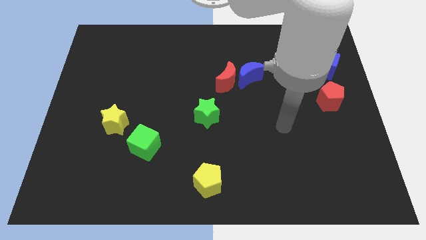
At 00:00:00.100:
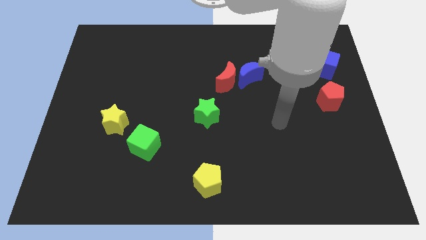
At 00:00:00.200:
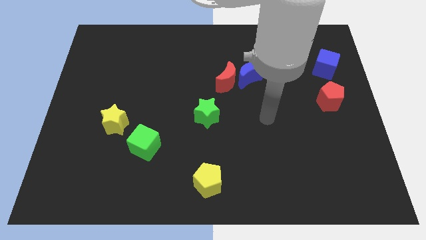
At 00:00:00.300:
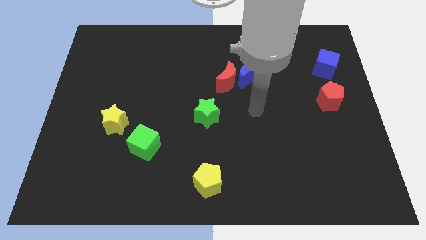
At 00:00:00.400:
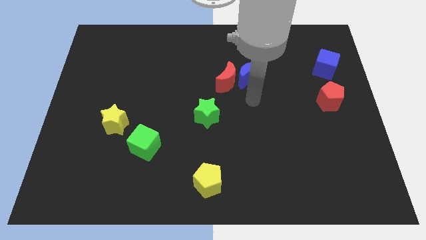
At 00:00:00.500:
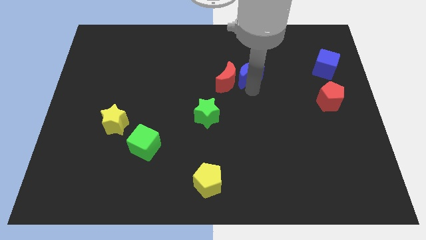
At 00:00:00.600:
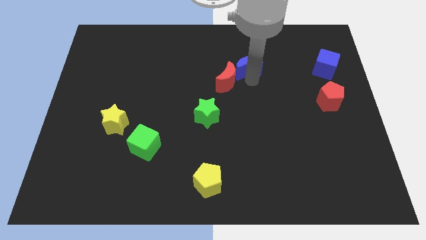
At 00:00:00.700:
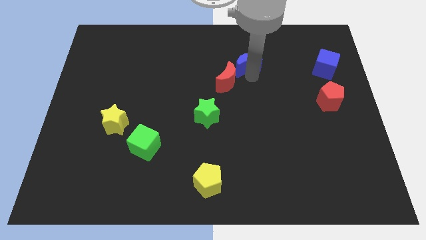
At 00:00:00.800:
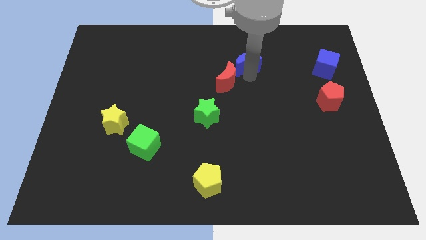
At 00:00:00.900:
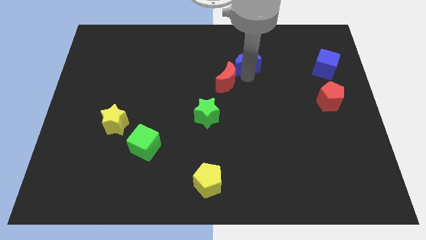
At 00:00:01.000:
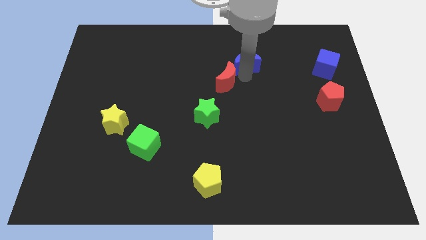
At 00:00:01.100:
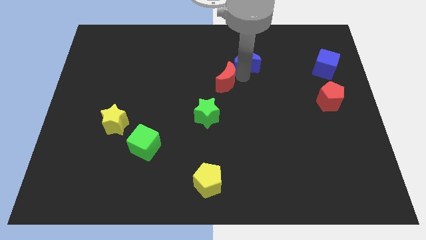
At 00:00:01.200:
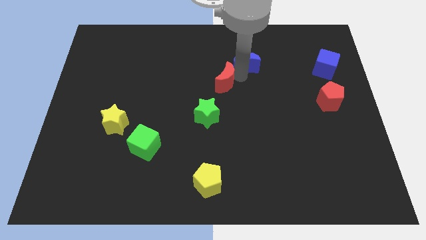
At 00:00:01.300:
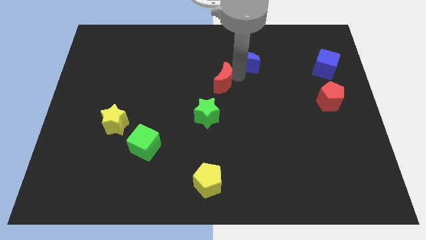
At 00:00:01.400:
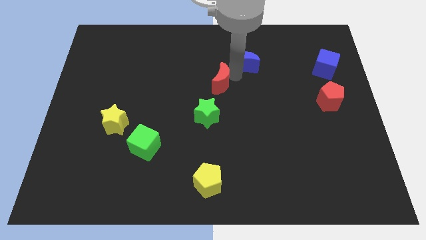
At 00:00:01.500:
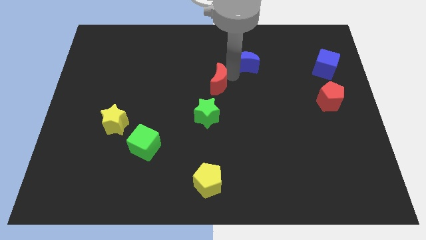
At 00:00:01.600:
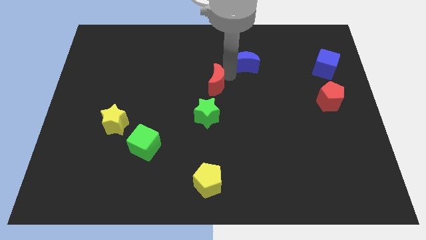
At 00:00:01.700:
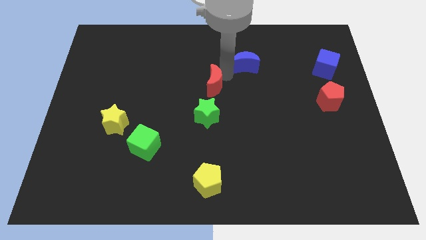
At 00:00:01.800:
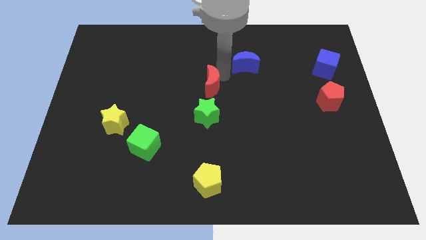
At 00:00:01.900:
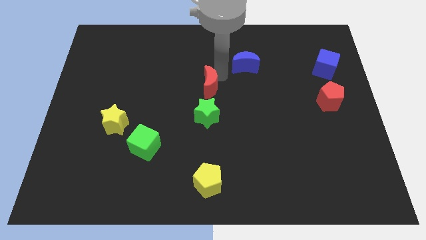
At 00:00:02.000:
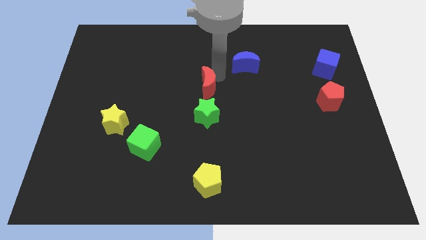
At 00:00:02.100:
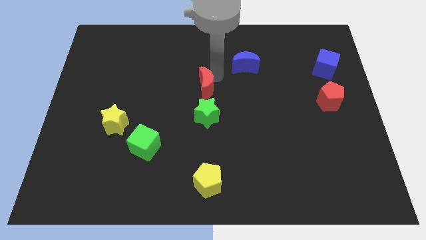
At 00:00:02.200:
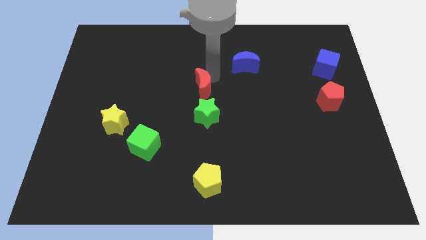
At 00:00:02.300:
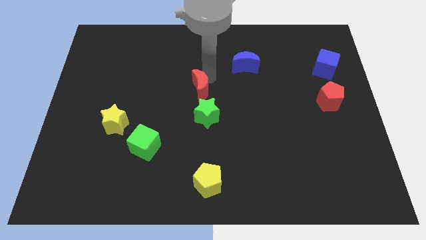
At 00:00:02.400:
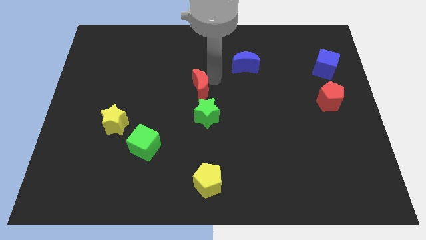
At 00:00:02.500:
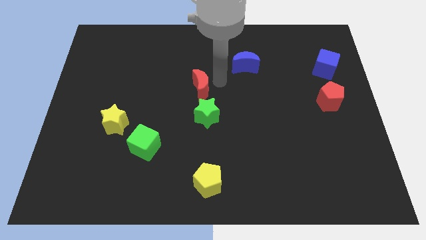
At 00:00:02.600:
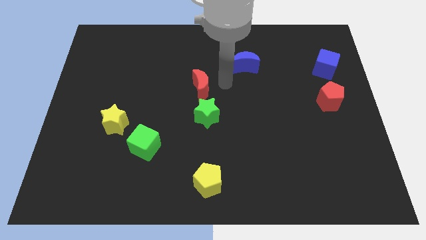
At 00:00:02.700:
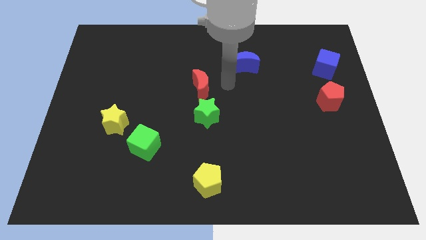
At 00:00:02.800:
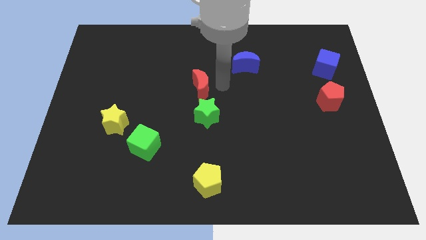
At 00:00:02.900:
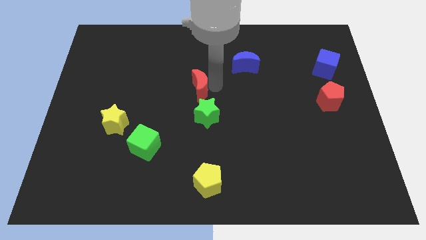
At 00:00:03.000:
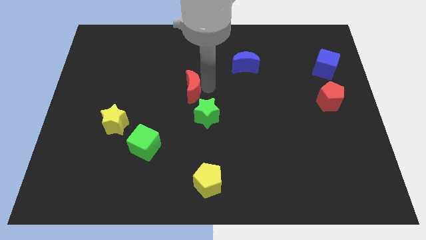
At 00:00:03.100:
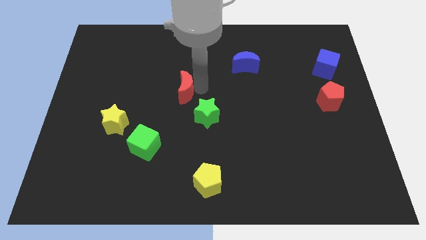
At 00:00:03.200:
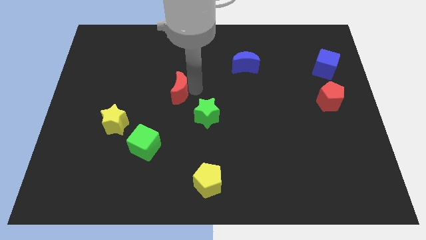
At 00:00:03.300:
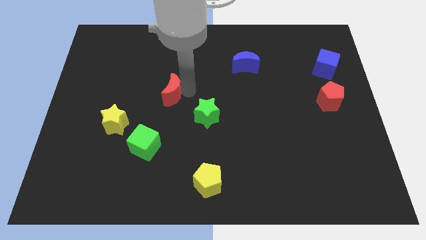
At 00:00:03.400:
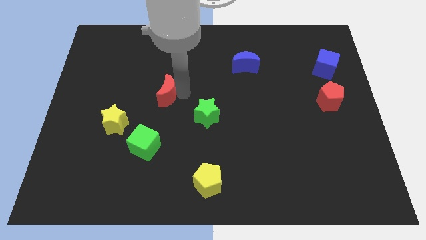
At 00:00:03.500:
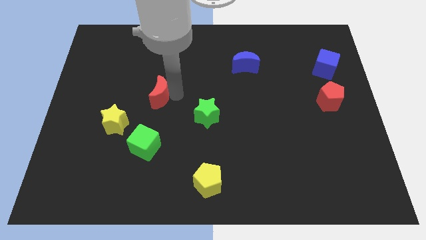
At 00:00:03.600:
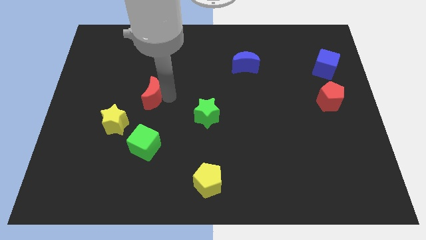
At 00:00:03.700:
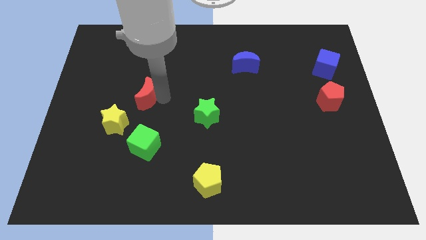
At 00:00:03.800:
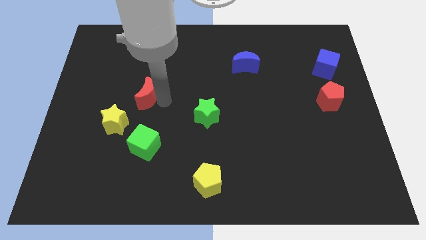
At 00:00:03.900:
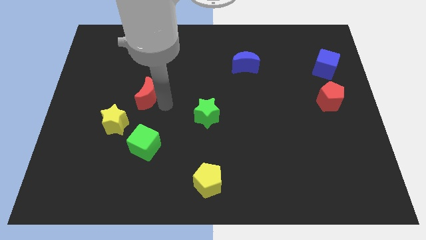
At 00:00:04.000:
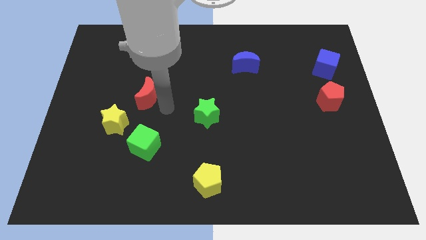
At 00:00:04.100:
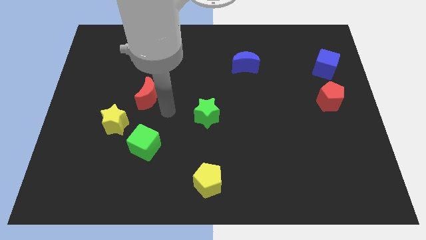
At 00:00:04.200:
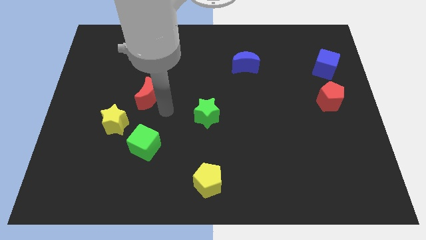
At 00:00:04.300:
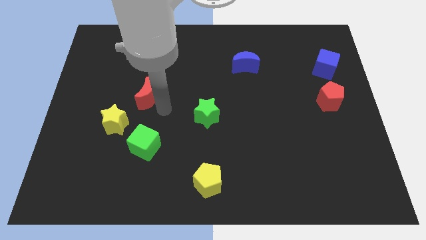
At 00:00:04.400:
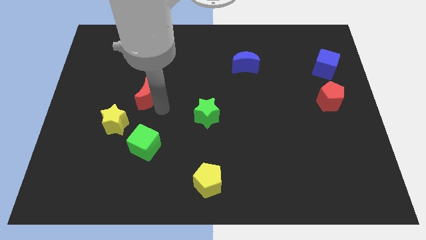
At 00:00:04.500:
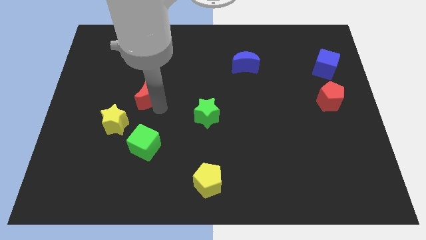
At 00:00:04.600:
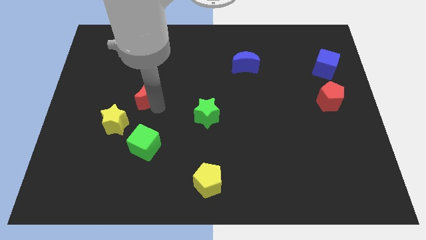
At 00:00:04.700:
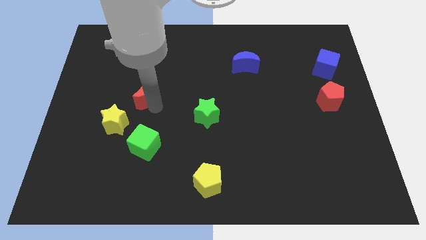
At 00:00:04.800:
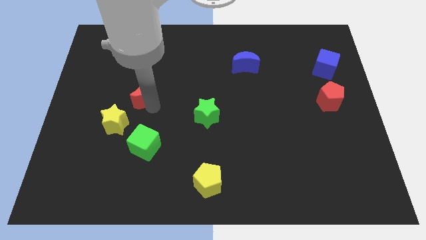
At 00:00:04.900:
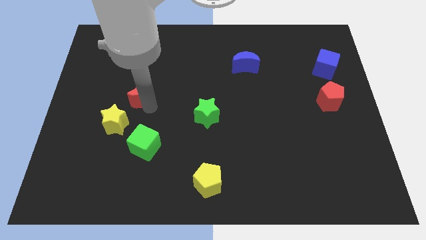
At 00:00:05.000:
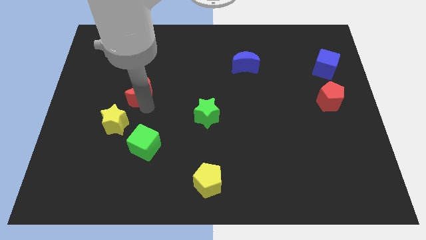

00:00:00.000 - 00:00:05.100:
move the red moon left

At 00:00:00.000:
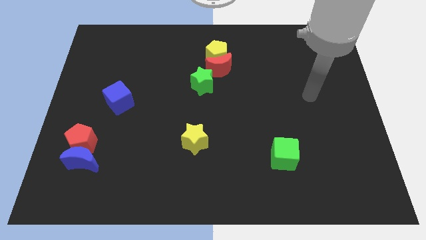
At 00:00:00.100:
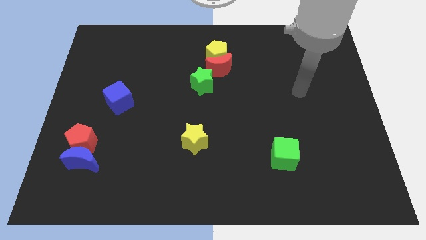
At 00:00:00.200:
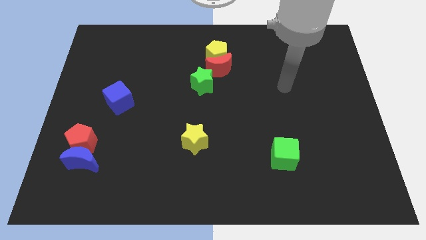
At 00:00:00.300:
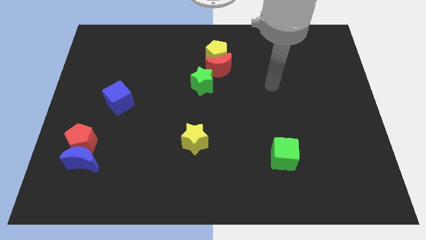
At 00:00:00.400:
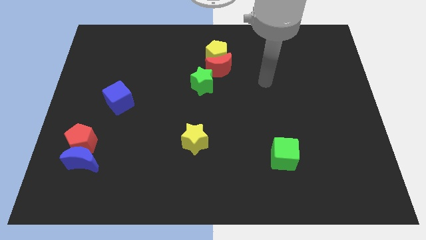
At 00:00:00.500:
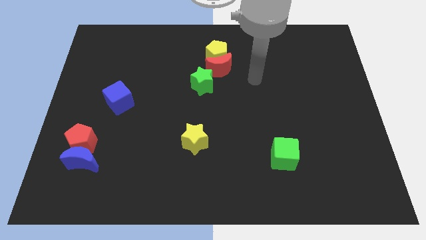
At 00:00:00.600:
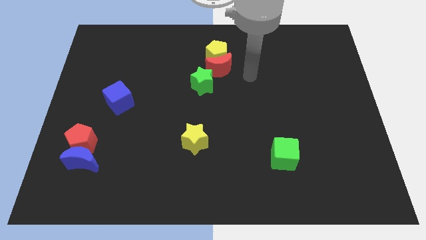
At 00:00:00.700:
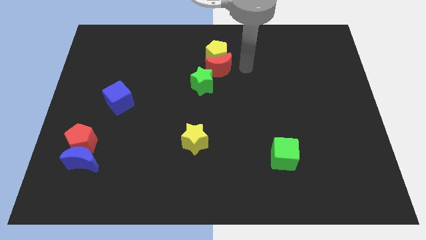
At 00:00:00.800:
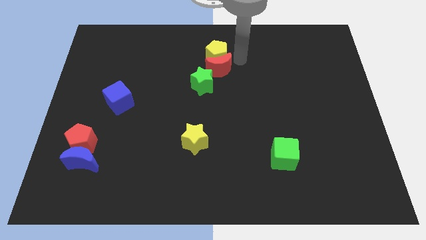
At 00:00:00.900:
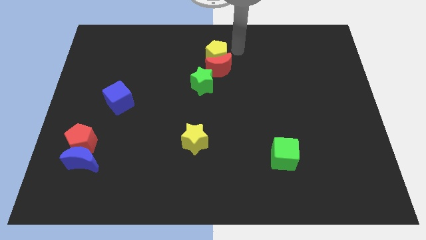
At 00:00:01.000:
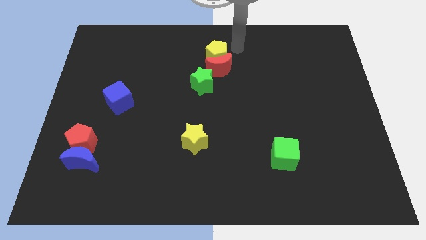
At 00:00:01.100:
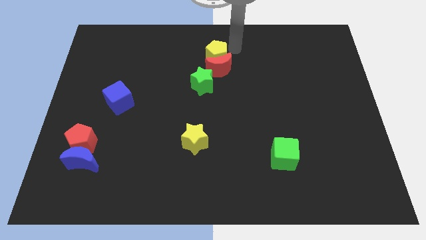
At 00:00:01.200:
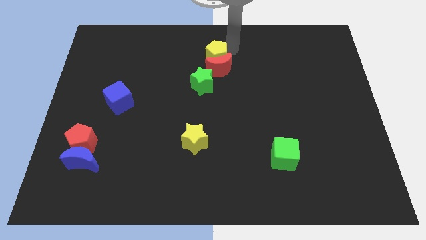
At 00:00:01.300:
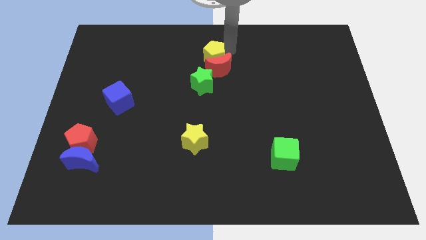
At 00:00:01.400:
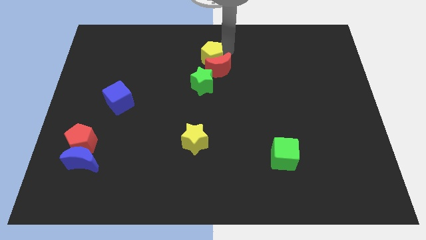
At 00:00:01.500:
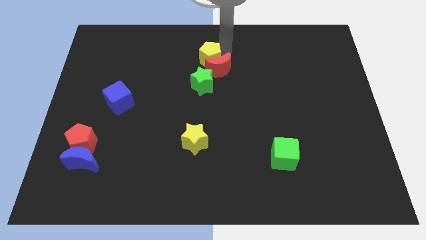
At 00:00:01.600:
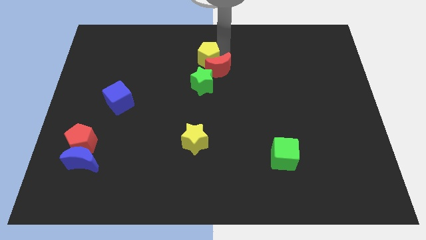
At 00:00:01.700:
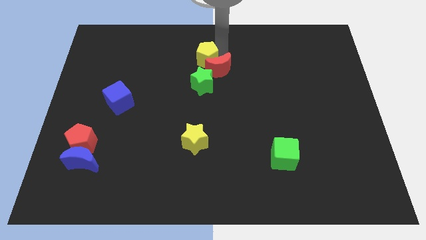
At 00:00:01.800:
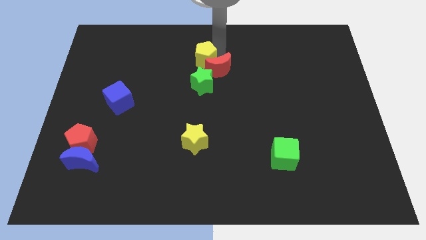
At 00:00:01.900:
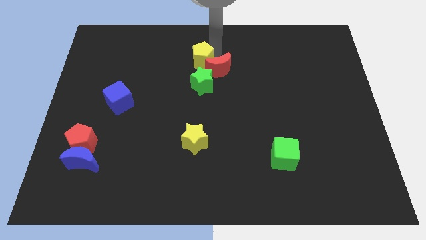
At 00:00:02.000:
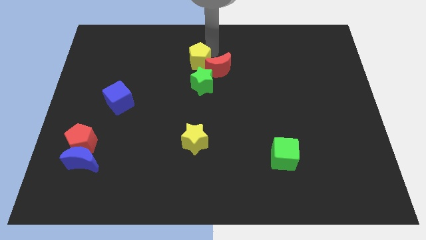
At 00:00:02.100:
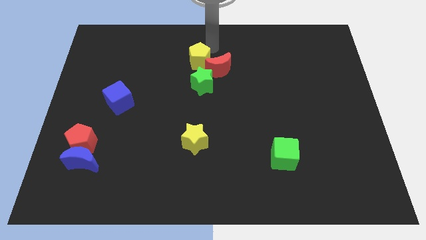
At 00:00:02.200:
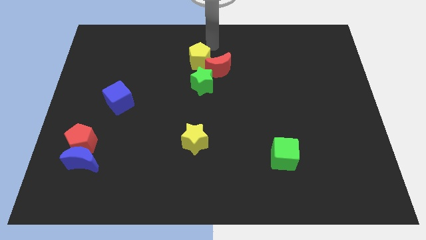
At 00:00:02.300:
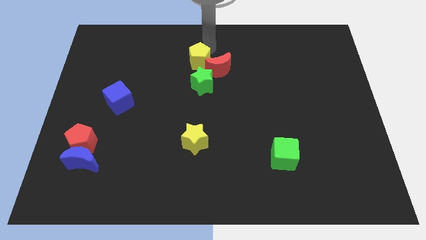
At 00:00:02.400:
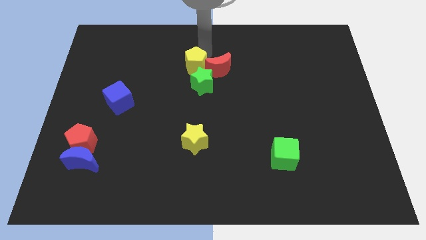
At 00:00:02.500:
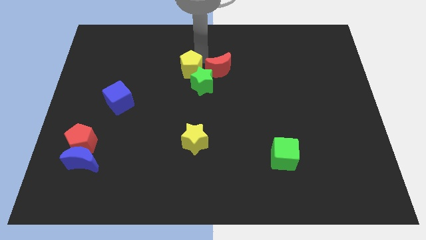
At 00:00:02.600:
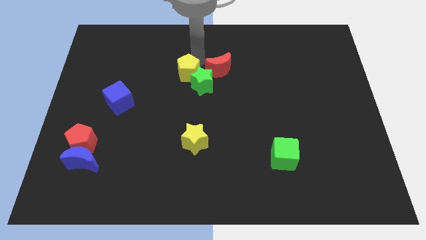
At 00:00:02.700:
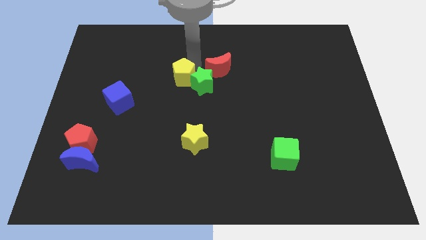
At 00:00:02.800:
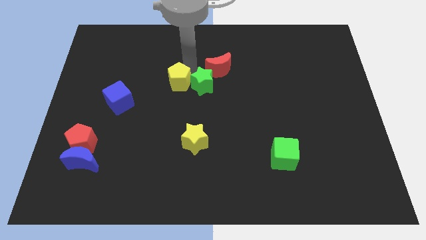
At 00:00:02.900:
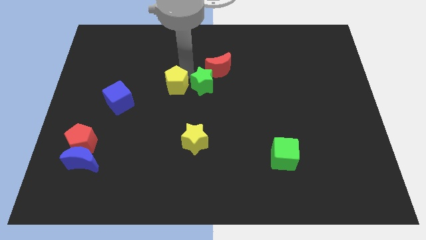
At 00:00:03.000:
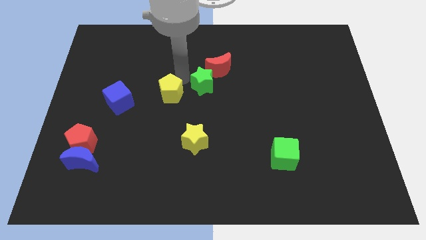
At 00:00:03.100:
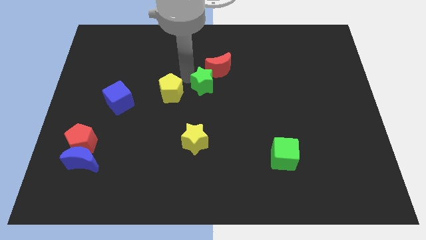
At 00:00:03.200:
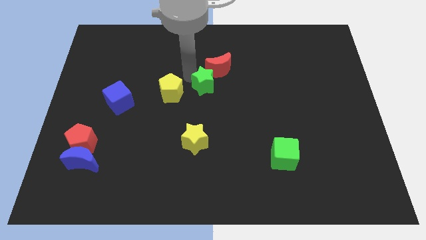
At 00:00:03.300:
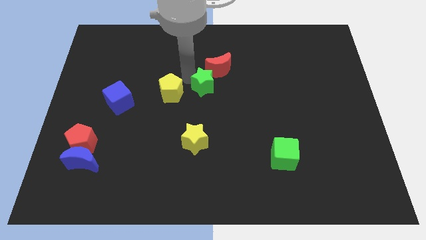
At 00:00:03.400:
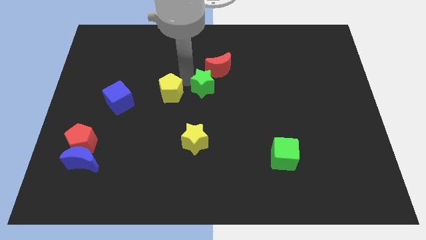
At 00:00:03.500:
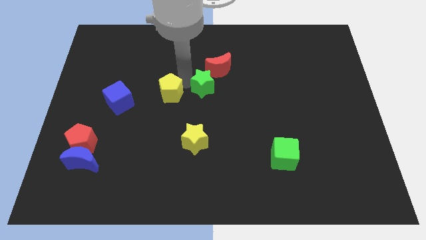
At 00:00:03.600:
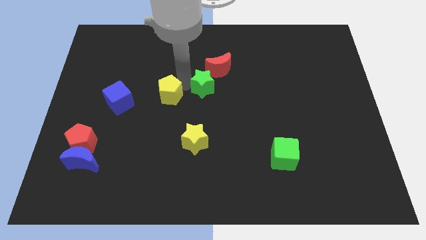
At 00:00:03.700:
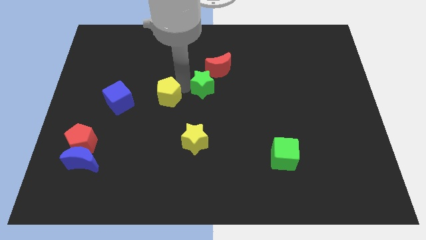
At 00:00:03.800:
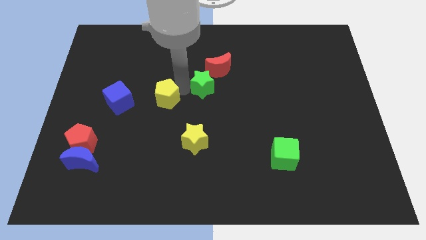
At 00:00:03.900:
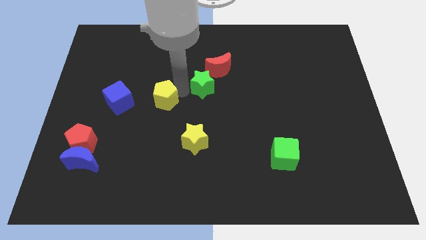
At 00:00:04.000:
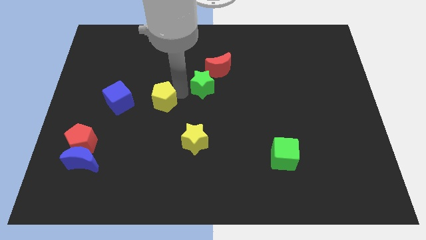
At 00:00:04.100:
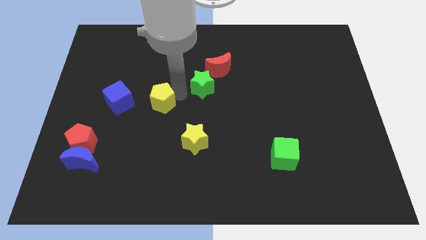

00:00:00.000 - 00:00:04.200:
slide the yellow pentagon diagonally down and left
